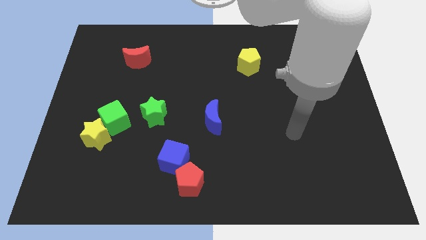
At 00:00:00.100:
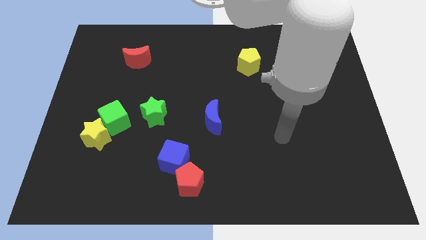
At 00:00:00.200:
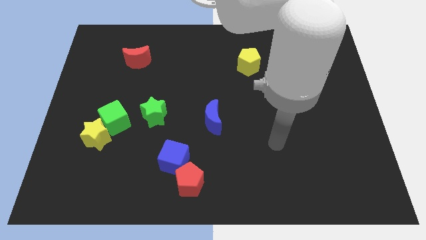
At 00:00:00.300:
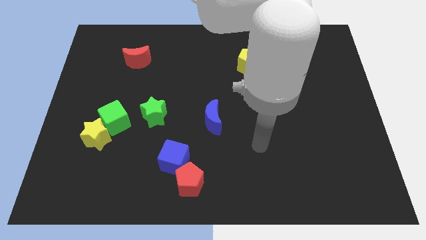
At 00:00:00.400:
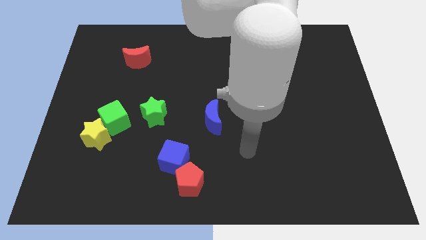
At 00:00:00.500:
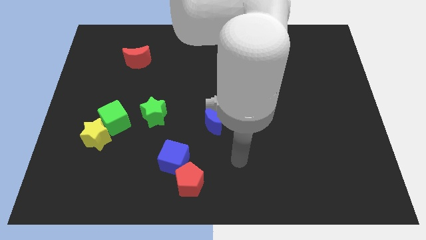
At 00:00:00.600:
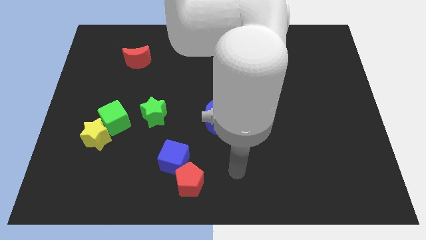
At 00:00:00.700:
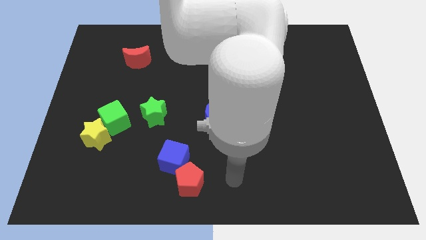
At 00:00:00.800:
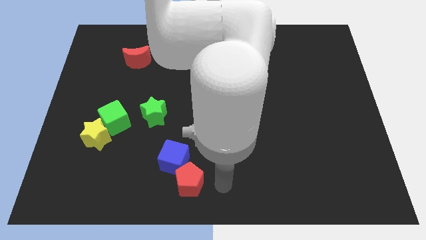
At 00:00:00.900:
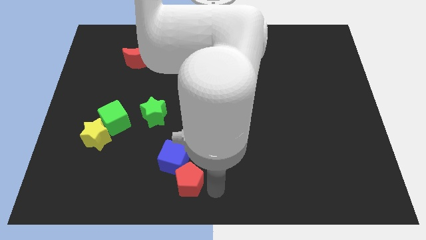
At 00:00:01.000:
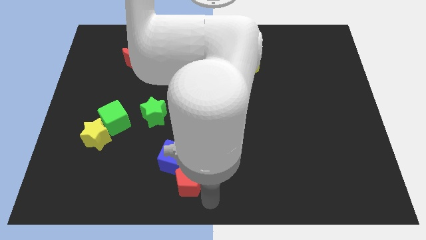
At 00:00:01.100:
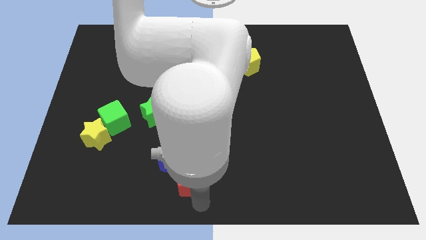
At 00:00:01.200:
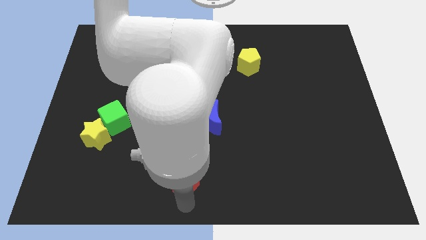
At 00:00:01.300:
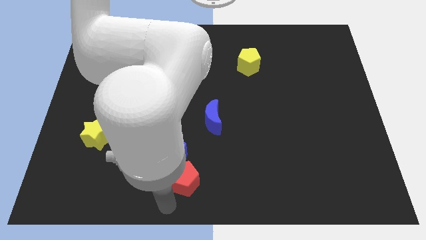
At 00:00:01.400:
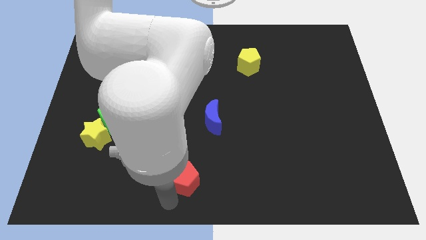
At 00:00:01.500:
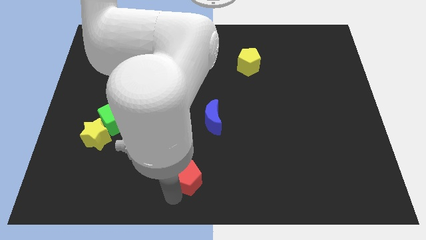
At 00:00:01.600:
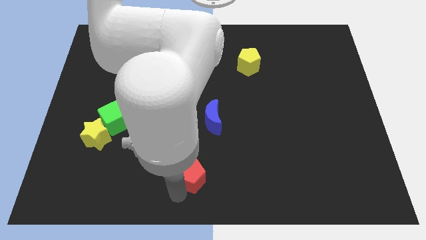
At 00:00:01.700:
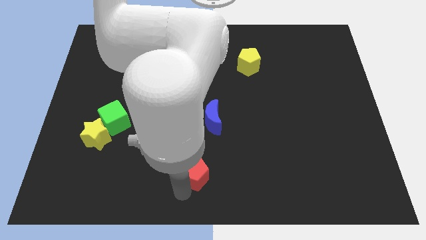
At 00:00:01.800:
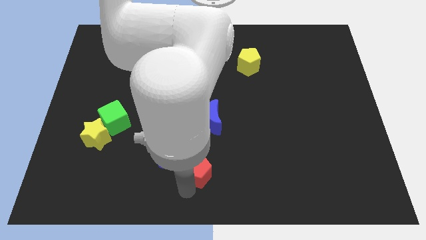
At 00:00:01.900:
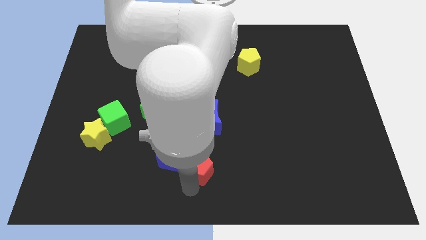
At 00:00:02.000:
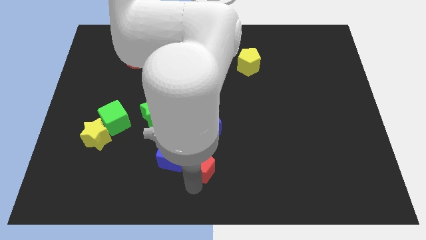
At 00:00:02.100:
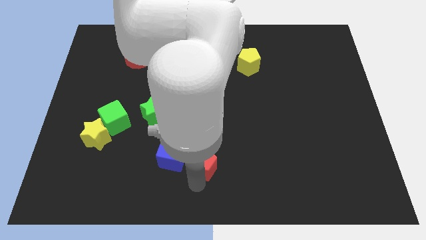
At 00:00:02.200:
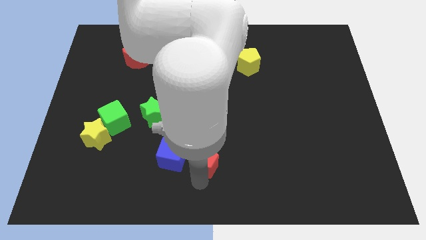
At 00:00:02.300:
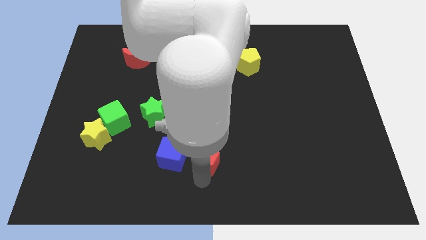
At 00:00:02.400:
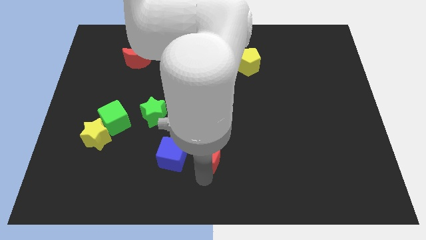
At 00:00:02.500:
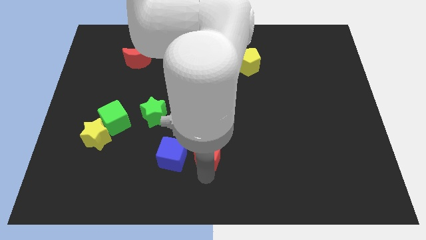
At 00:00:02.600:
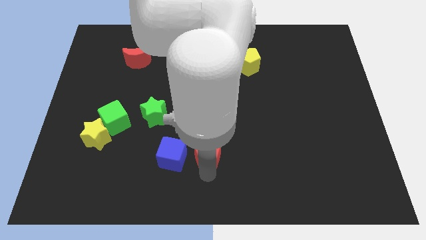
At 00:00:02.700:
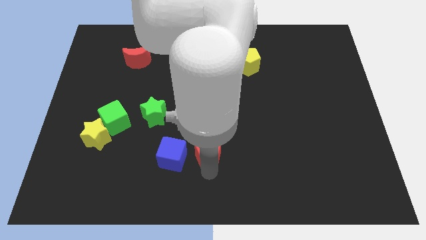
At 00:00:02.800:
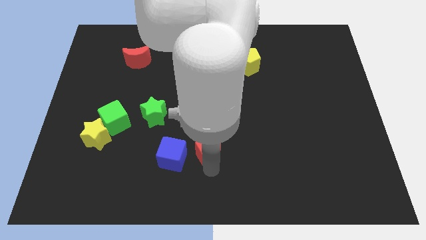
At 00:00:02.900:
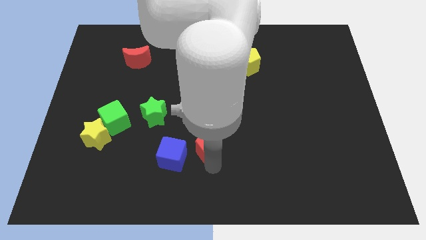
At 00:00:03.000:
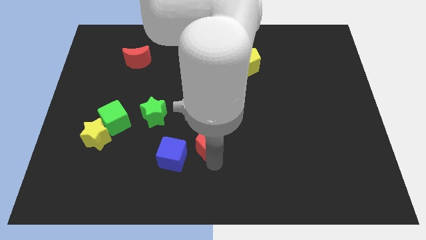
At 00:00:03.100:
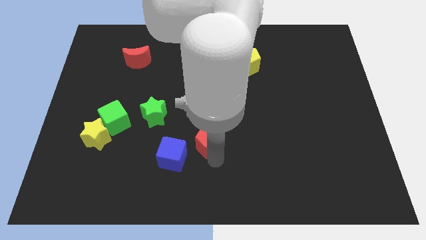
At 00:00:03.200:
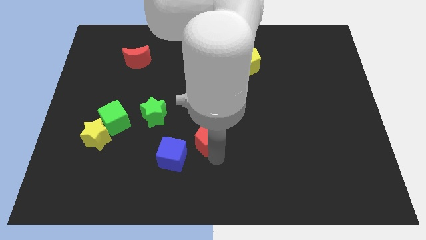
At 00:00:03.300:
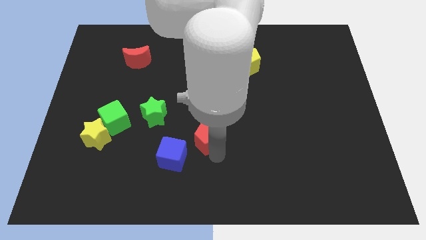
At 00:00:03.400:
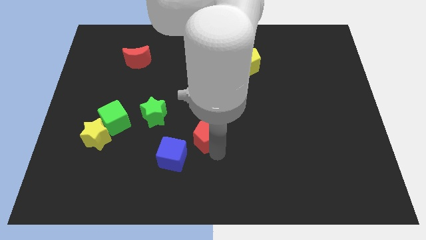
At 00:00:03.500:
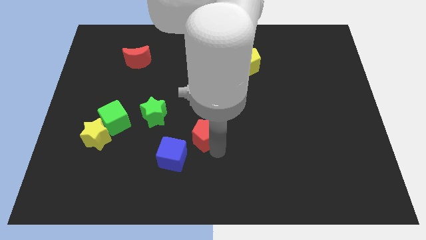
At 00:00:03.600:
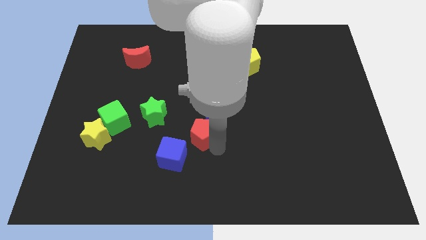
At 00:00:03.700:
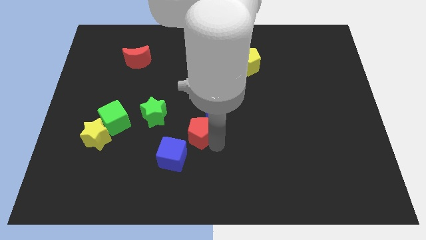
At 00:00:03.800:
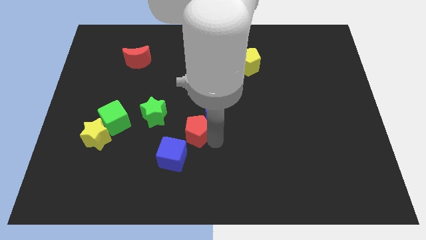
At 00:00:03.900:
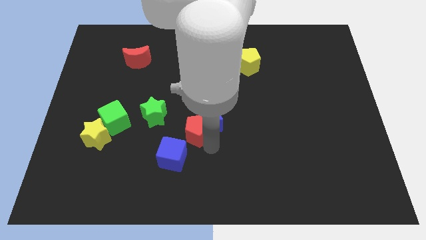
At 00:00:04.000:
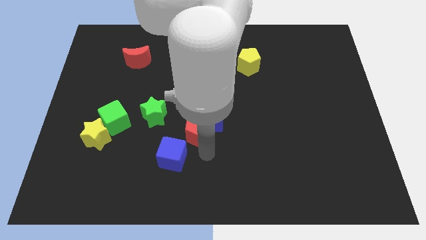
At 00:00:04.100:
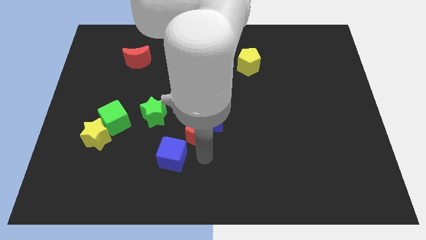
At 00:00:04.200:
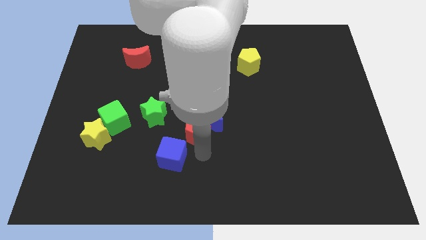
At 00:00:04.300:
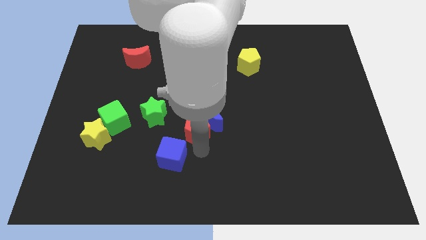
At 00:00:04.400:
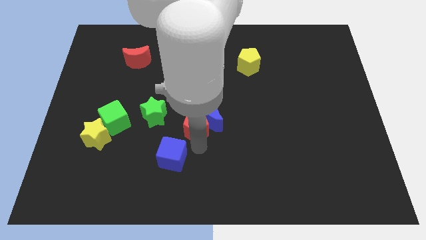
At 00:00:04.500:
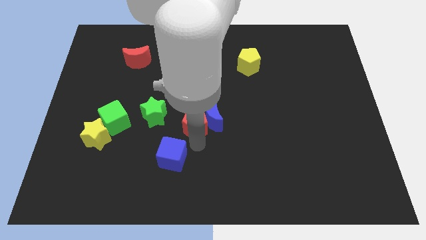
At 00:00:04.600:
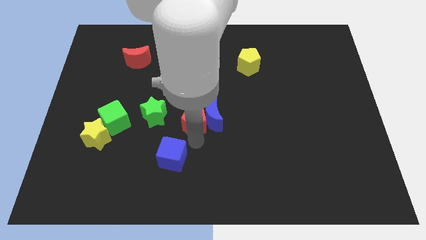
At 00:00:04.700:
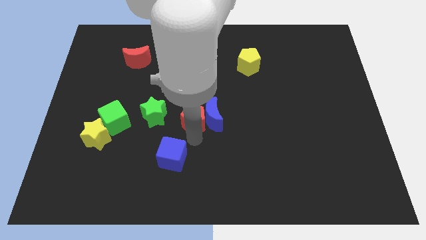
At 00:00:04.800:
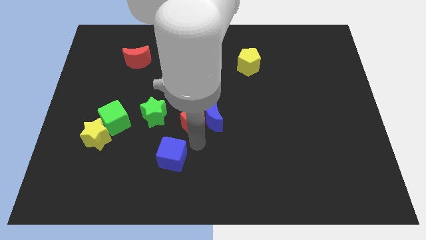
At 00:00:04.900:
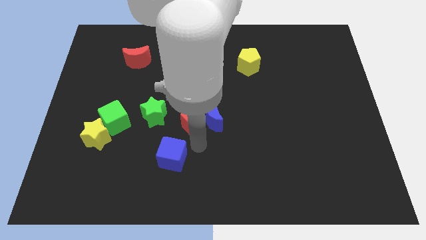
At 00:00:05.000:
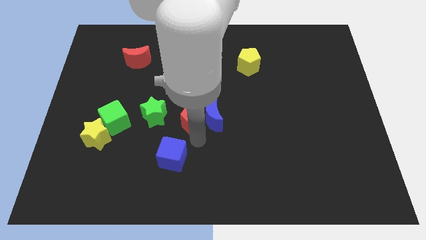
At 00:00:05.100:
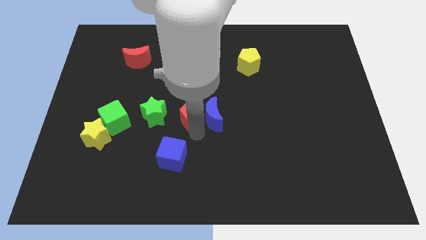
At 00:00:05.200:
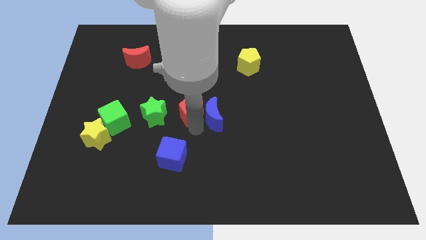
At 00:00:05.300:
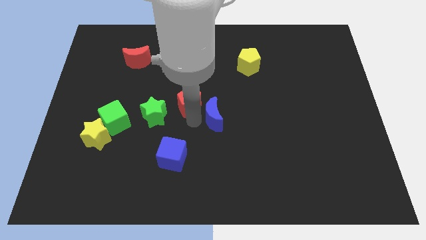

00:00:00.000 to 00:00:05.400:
push the red pentagon up

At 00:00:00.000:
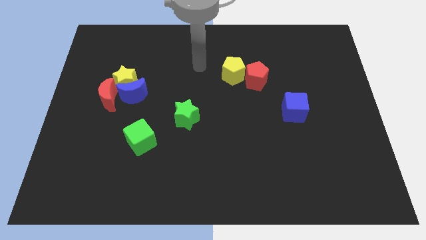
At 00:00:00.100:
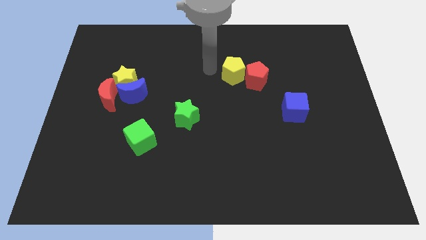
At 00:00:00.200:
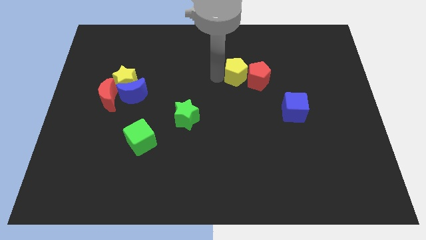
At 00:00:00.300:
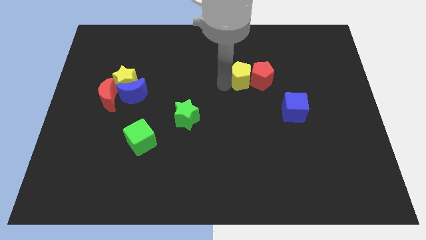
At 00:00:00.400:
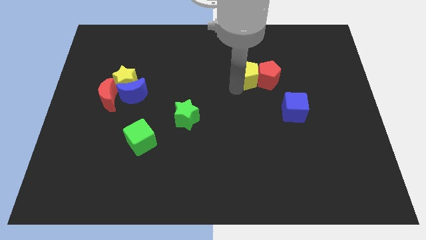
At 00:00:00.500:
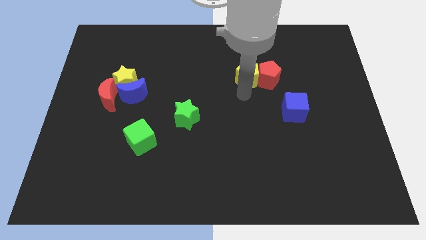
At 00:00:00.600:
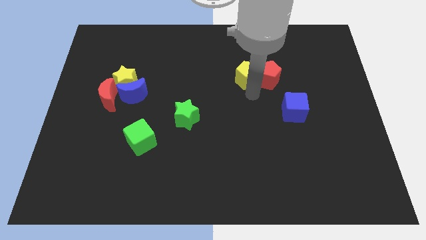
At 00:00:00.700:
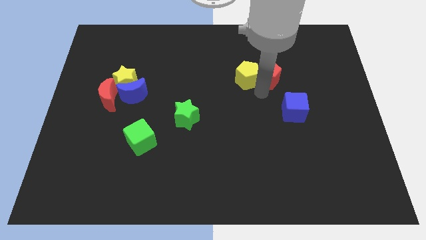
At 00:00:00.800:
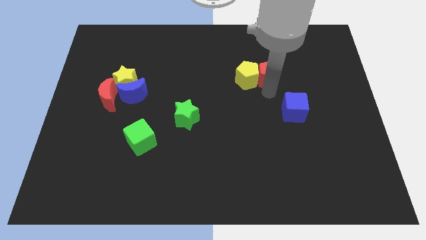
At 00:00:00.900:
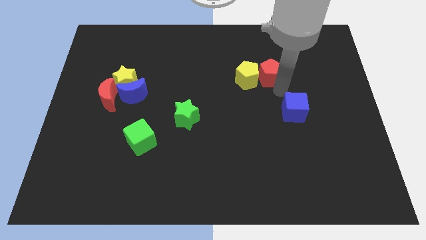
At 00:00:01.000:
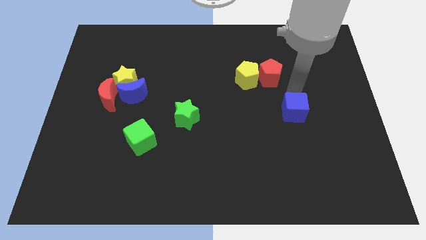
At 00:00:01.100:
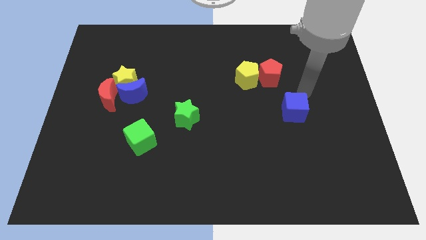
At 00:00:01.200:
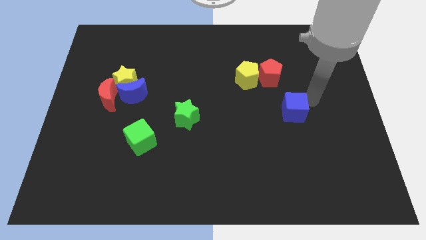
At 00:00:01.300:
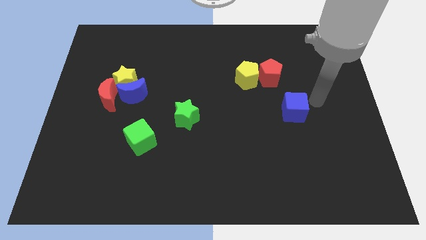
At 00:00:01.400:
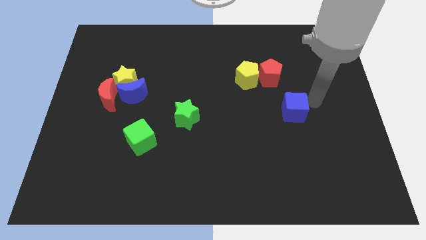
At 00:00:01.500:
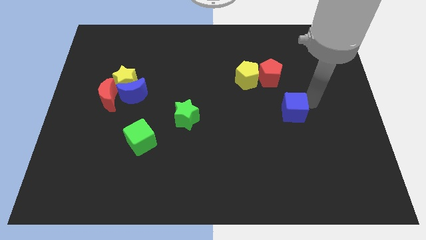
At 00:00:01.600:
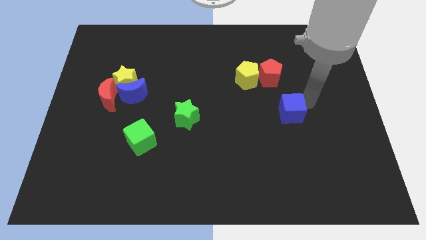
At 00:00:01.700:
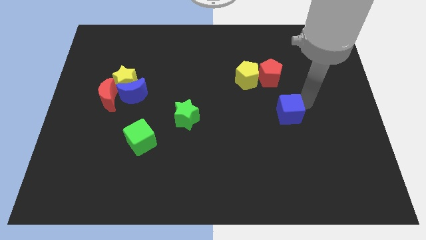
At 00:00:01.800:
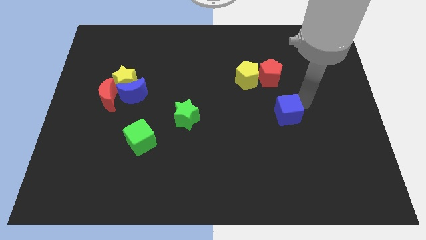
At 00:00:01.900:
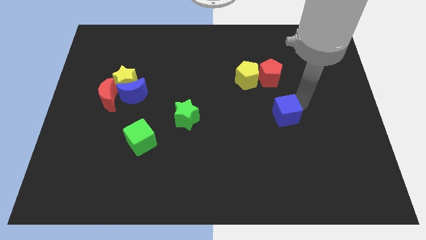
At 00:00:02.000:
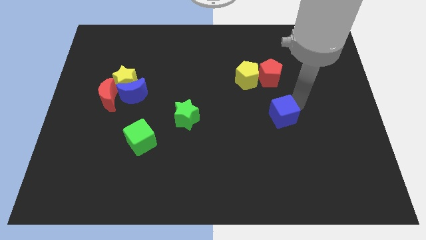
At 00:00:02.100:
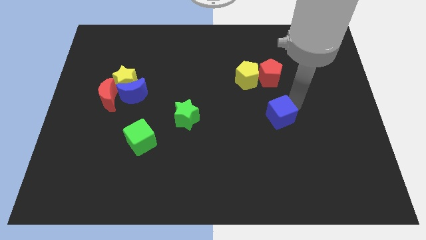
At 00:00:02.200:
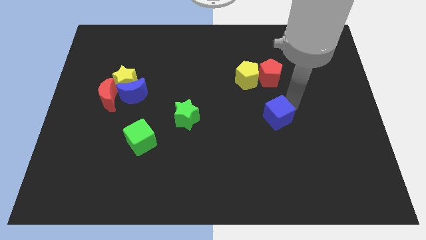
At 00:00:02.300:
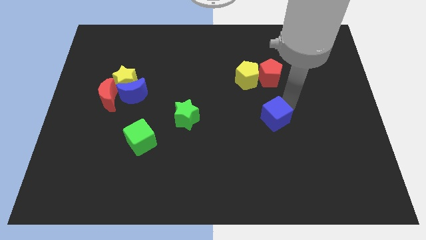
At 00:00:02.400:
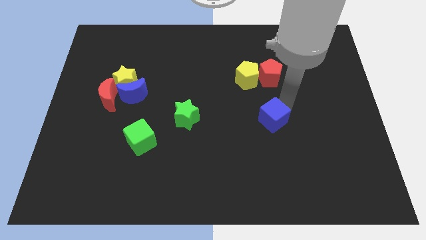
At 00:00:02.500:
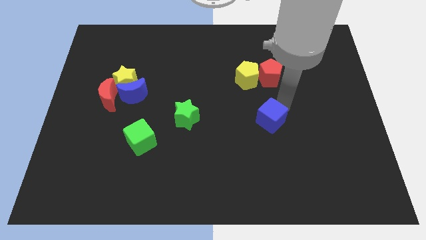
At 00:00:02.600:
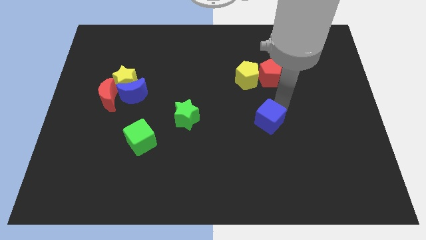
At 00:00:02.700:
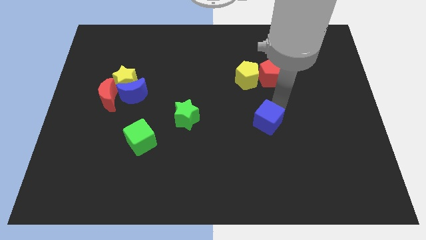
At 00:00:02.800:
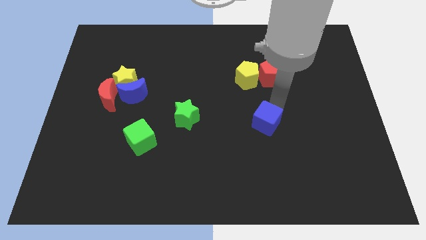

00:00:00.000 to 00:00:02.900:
slightly slide the blue cube diagonally downwards and to the left
